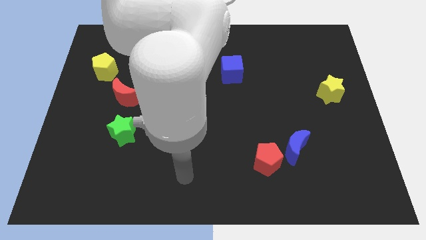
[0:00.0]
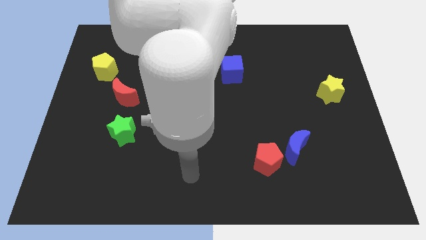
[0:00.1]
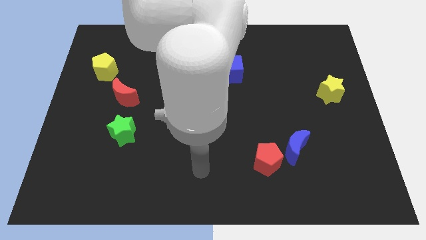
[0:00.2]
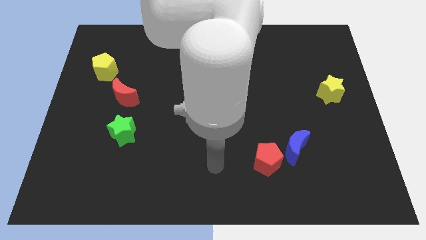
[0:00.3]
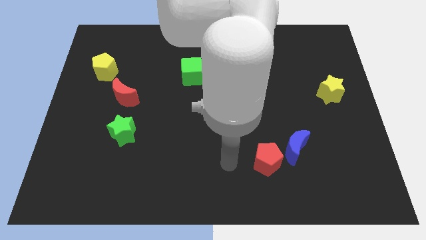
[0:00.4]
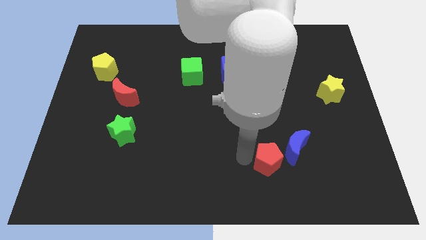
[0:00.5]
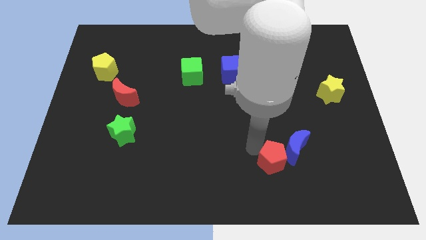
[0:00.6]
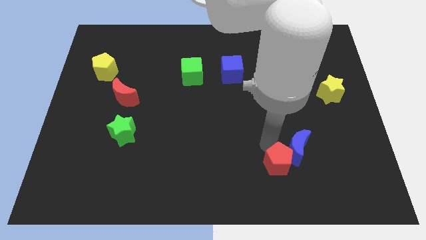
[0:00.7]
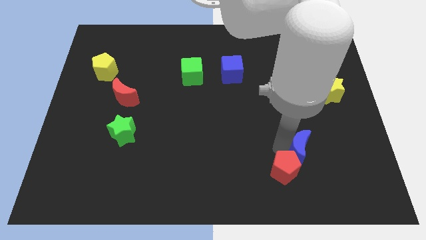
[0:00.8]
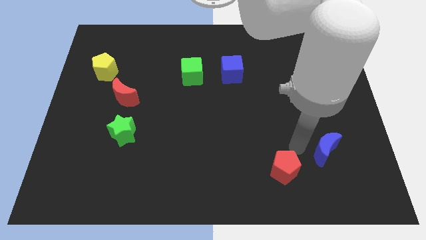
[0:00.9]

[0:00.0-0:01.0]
move the red pentagon away from the blue moon

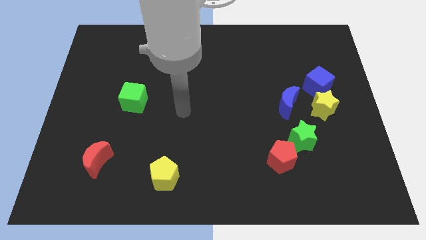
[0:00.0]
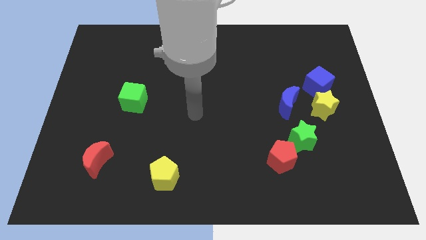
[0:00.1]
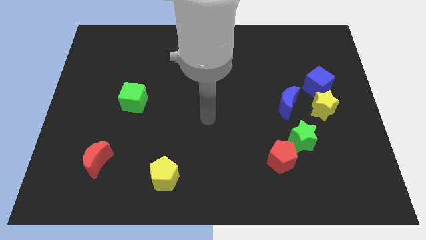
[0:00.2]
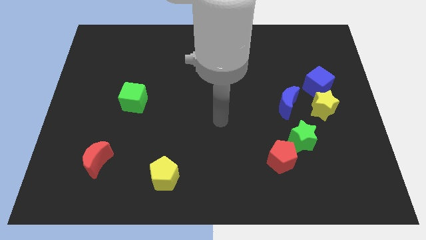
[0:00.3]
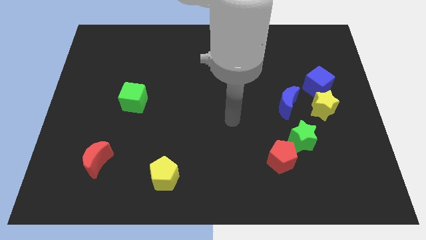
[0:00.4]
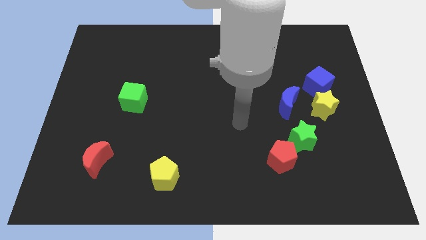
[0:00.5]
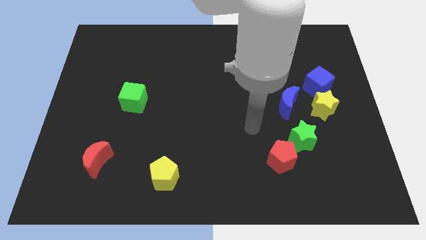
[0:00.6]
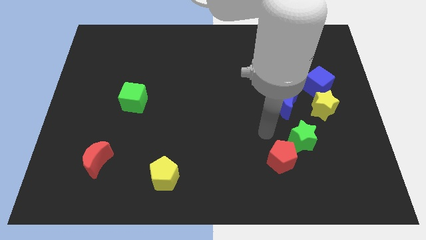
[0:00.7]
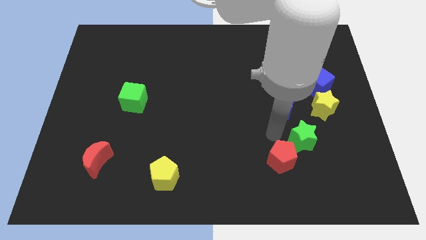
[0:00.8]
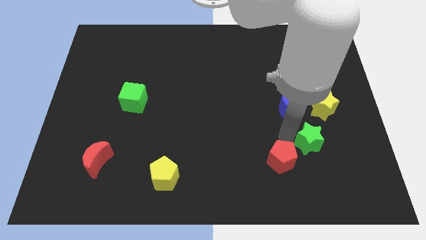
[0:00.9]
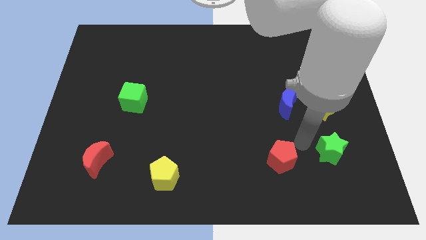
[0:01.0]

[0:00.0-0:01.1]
separate the red pentagon from the green star

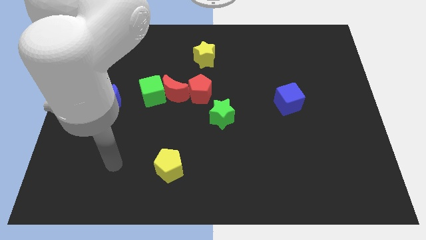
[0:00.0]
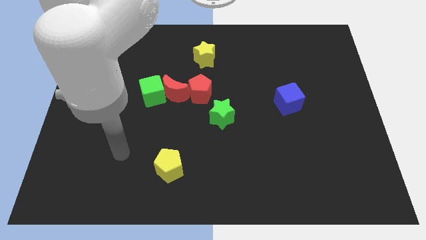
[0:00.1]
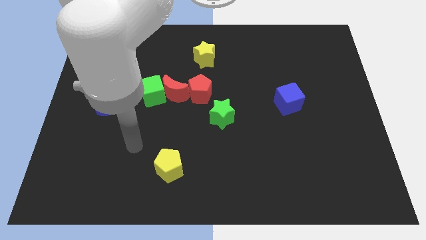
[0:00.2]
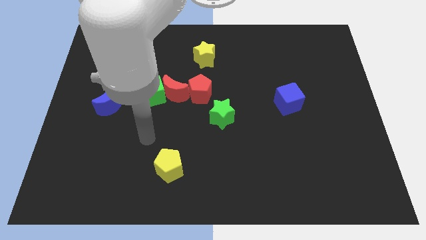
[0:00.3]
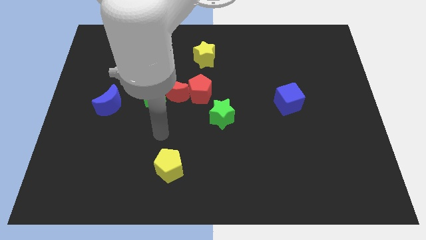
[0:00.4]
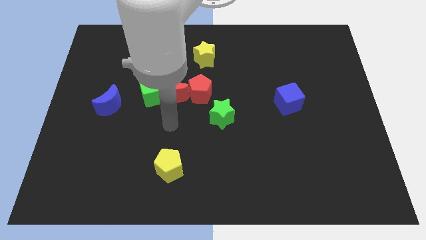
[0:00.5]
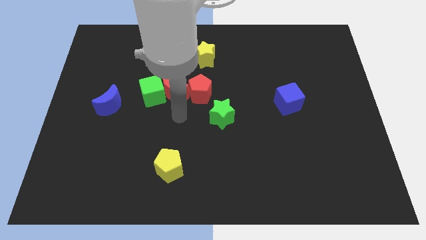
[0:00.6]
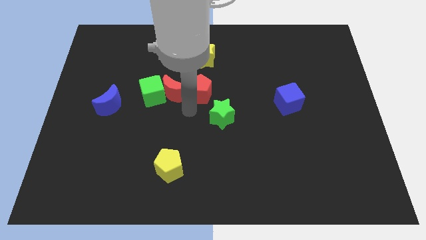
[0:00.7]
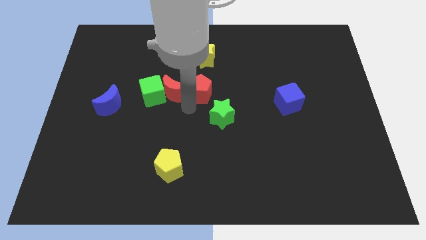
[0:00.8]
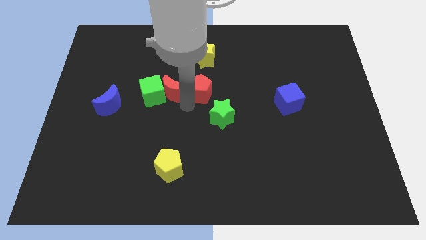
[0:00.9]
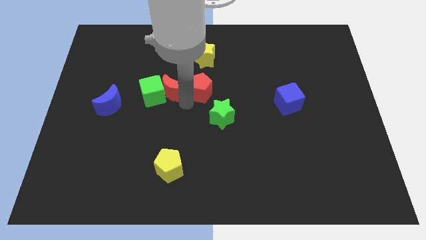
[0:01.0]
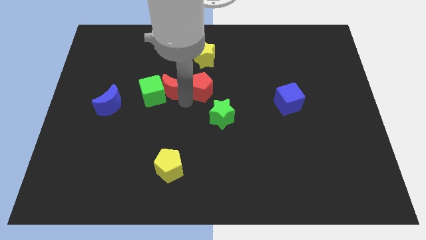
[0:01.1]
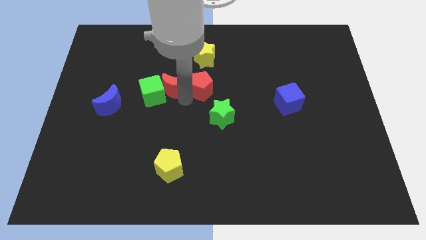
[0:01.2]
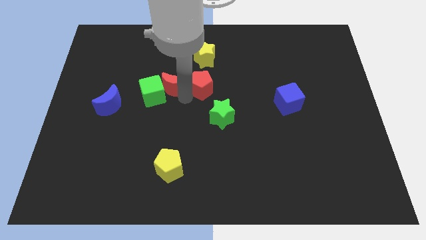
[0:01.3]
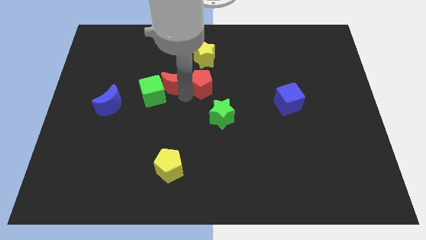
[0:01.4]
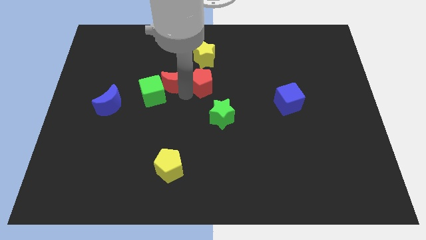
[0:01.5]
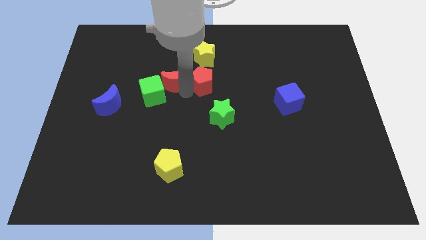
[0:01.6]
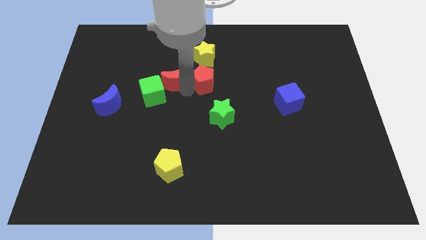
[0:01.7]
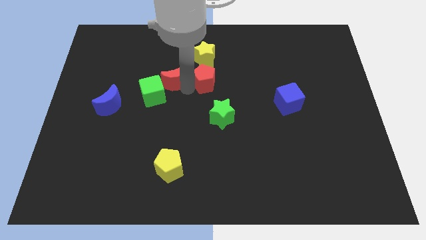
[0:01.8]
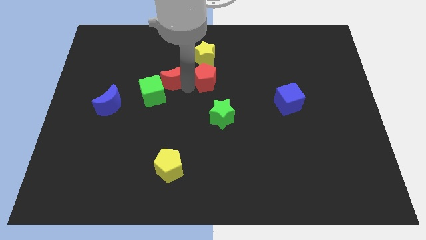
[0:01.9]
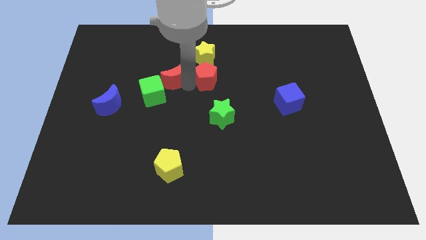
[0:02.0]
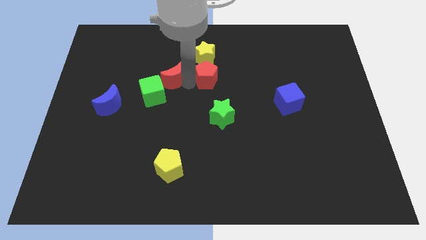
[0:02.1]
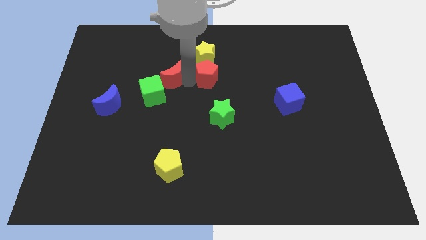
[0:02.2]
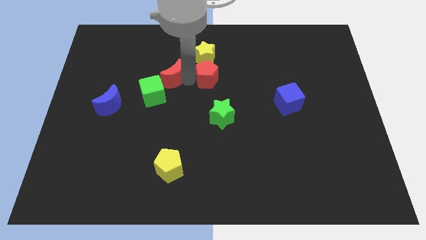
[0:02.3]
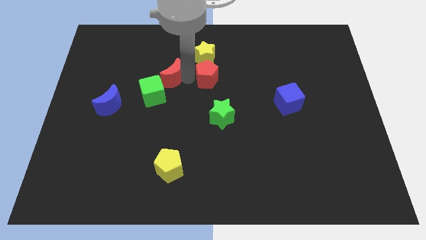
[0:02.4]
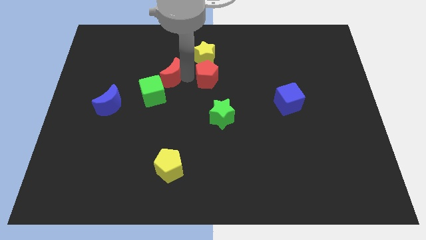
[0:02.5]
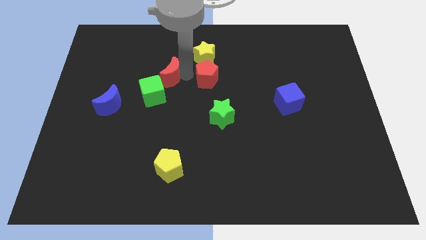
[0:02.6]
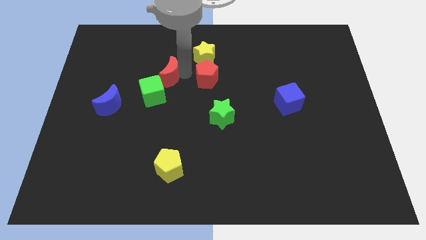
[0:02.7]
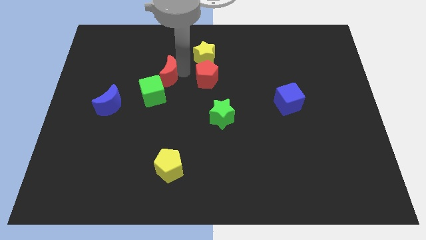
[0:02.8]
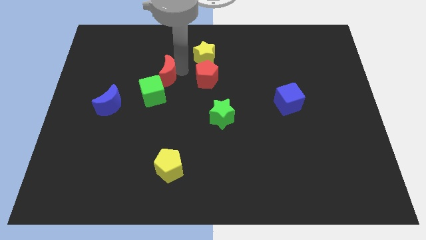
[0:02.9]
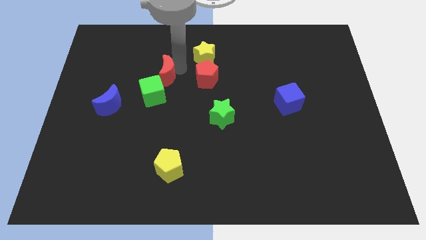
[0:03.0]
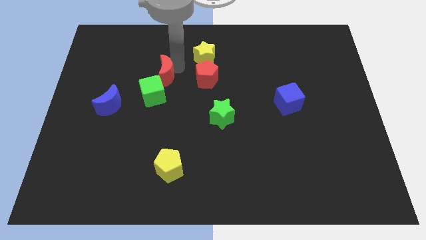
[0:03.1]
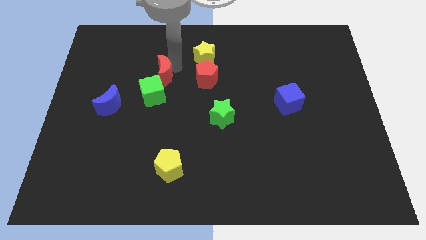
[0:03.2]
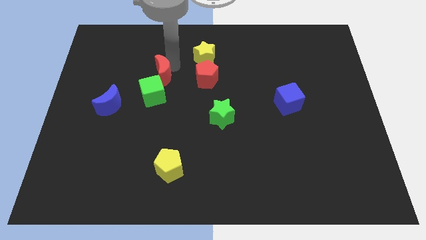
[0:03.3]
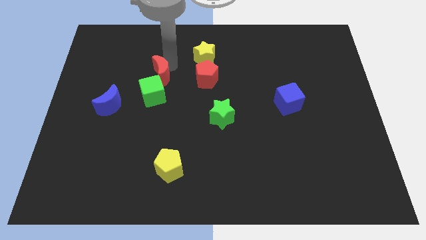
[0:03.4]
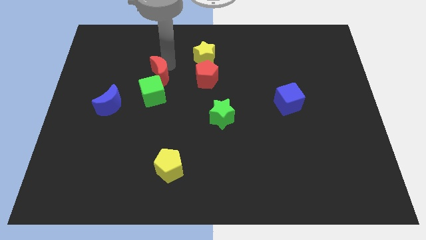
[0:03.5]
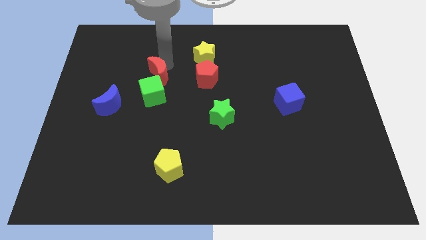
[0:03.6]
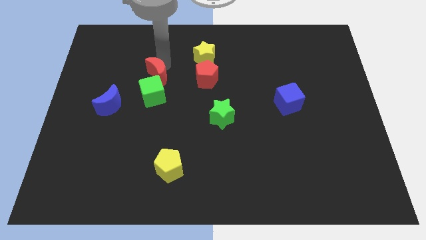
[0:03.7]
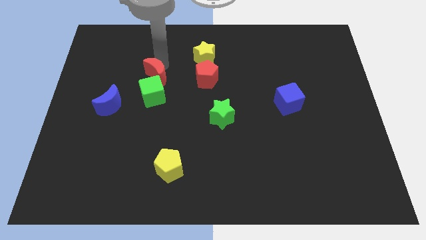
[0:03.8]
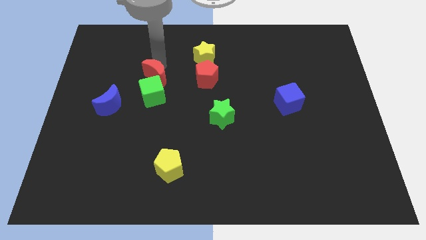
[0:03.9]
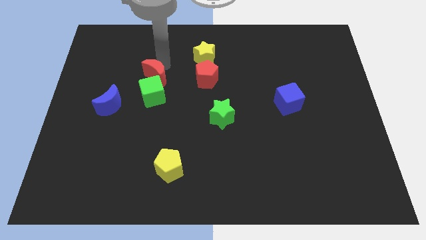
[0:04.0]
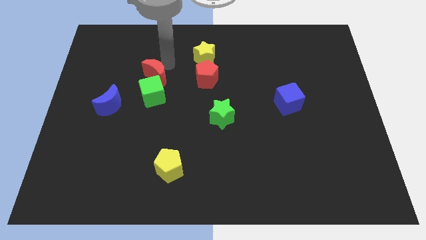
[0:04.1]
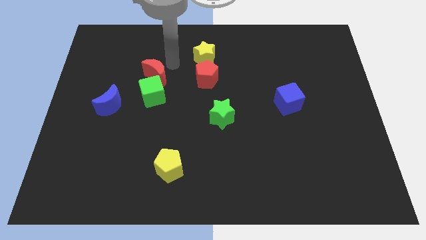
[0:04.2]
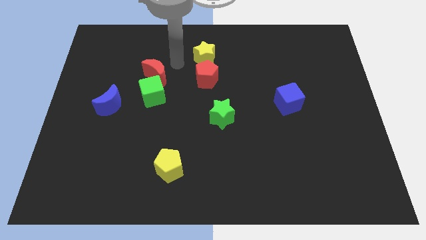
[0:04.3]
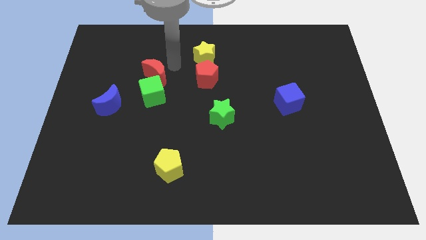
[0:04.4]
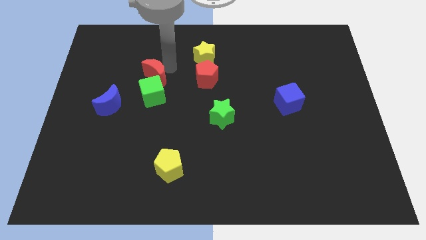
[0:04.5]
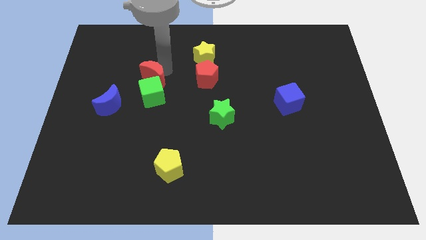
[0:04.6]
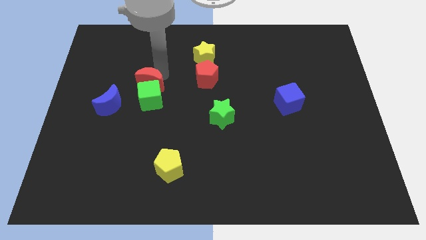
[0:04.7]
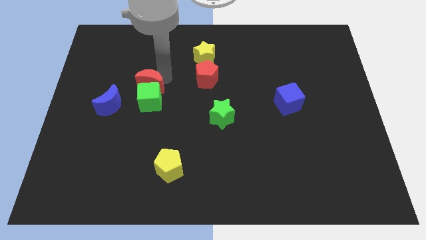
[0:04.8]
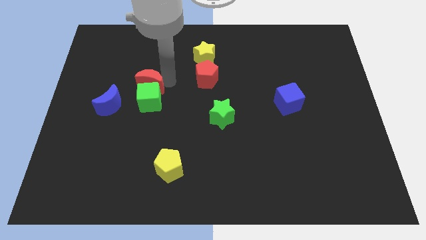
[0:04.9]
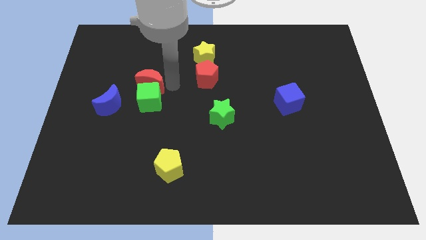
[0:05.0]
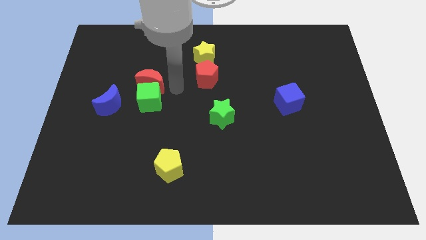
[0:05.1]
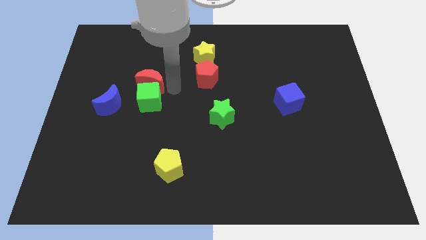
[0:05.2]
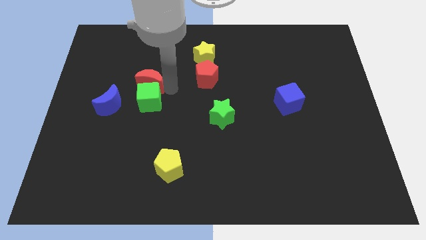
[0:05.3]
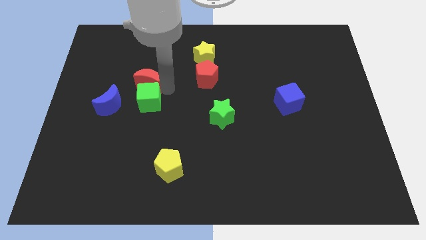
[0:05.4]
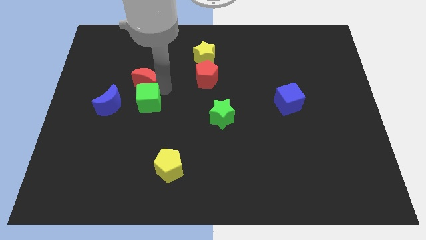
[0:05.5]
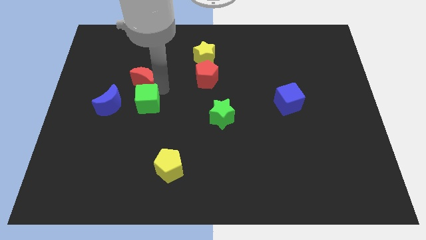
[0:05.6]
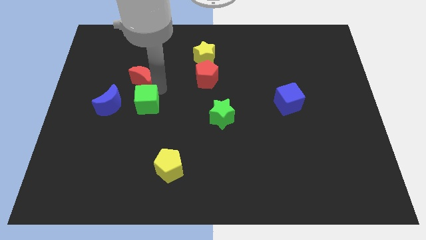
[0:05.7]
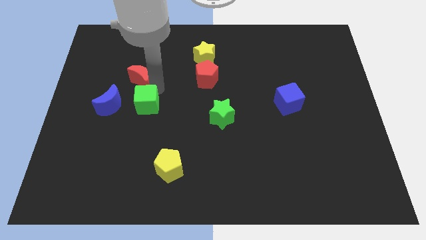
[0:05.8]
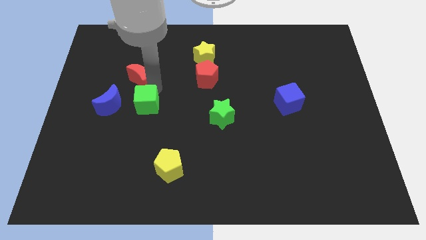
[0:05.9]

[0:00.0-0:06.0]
separate the red moon from the green cube and red pentagon

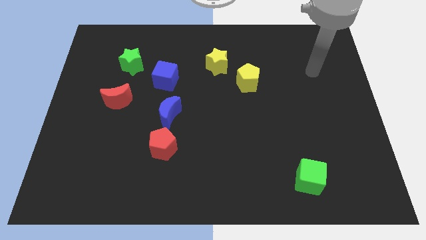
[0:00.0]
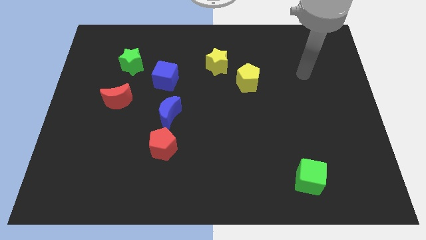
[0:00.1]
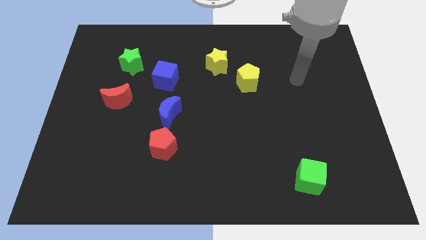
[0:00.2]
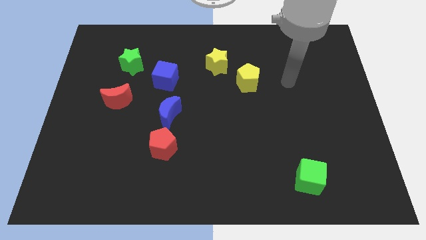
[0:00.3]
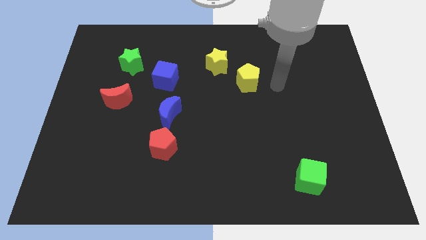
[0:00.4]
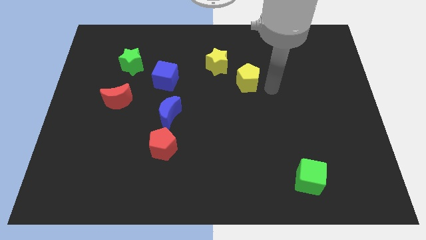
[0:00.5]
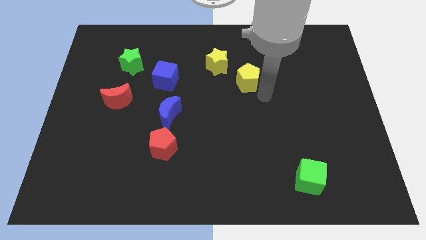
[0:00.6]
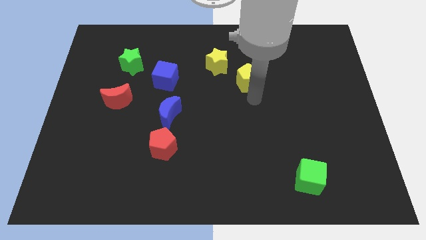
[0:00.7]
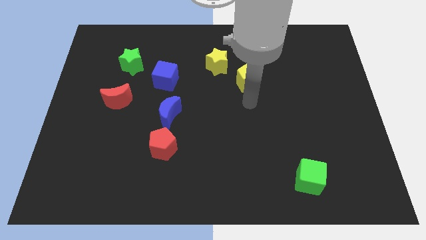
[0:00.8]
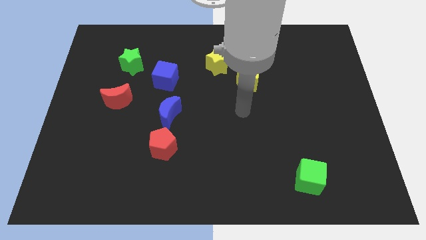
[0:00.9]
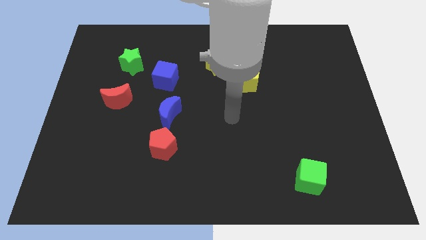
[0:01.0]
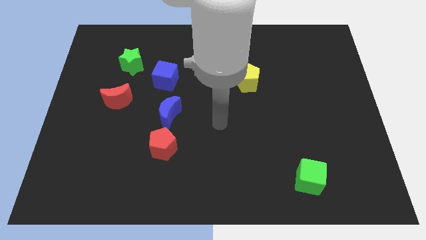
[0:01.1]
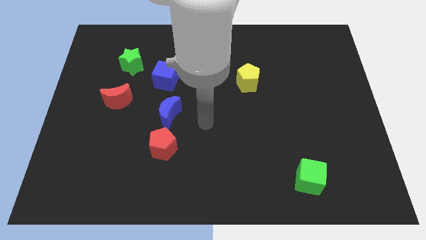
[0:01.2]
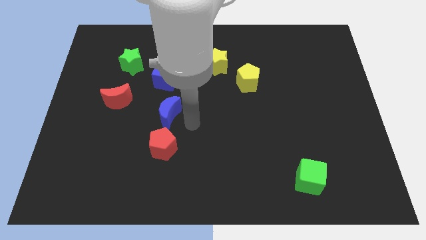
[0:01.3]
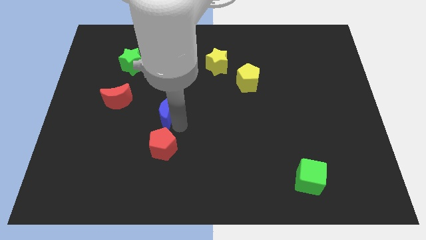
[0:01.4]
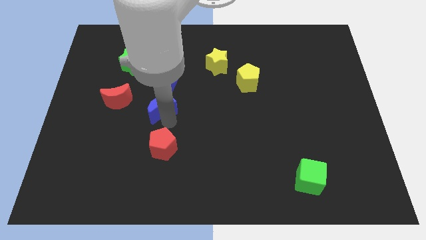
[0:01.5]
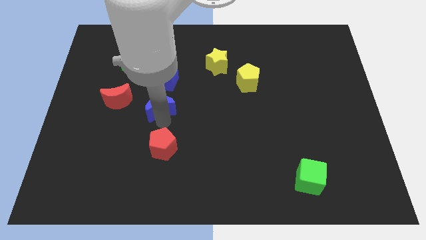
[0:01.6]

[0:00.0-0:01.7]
separate the red pentagon from the blue moon
